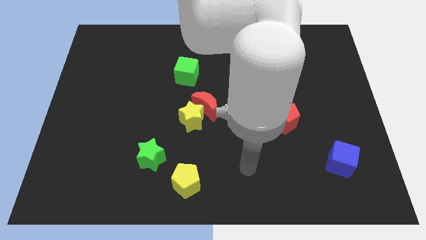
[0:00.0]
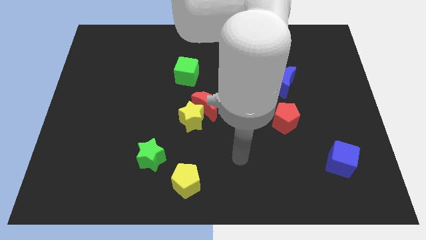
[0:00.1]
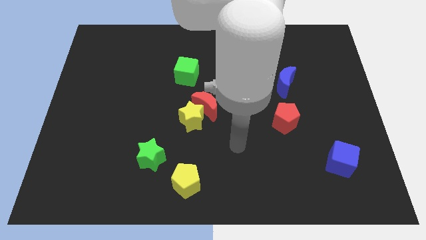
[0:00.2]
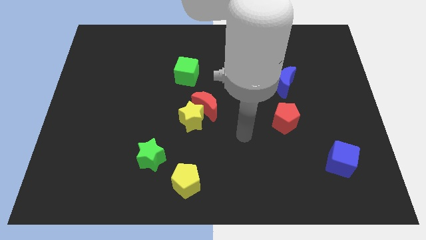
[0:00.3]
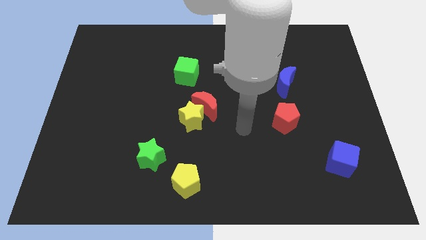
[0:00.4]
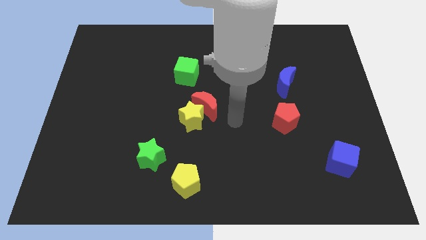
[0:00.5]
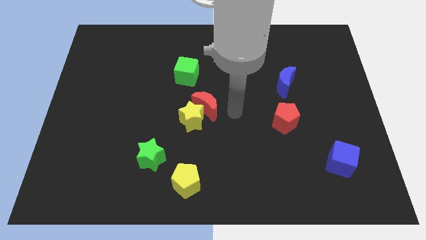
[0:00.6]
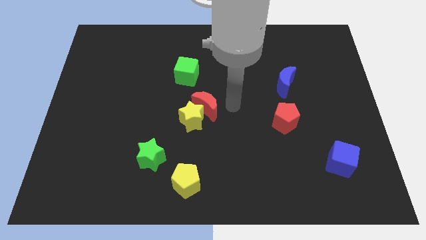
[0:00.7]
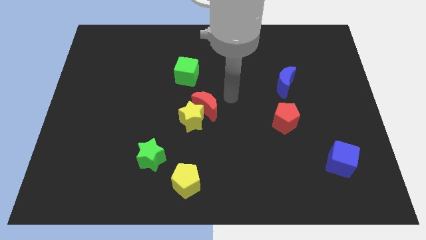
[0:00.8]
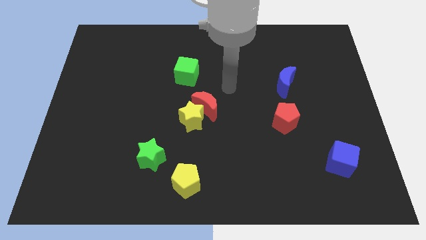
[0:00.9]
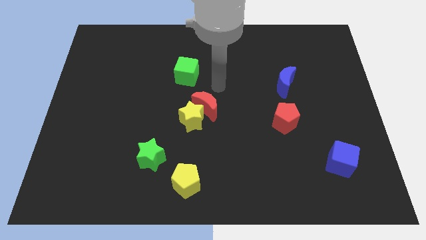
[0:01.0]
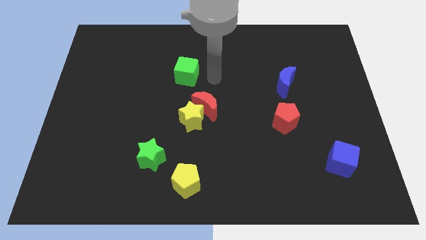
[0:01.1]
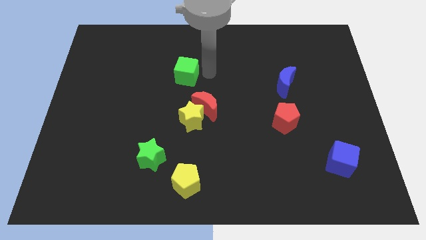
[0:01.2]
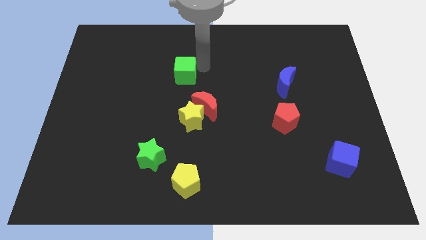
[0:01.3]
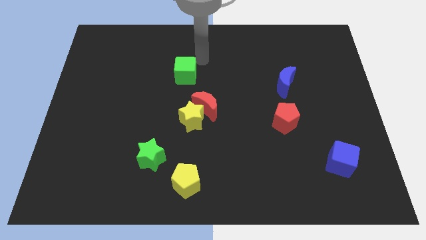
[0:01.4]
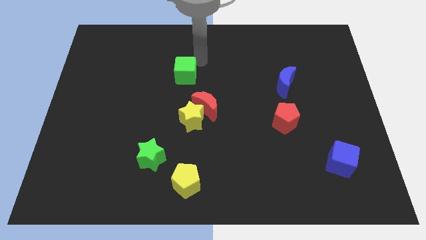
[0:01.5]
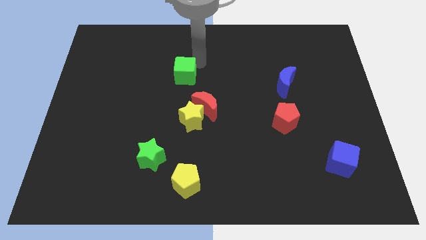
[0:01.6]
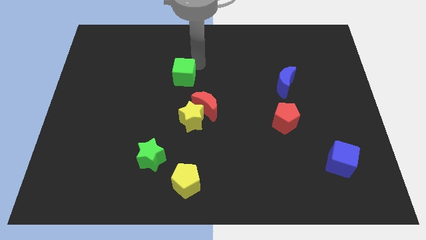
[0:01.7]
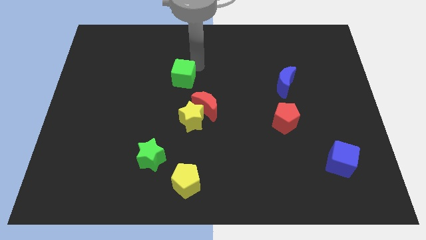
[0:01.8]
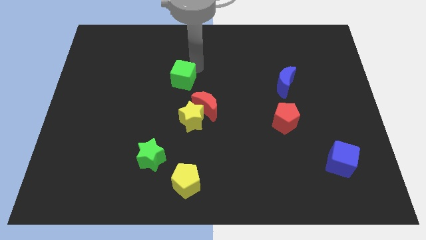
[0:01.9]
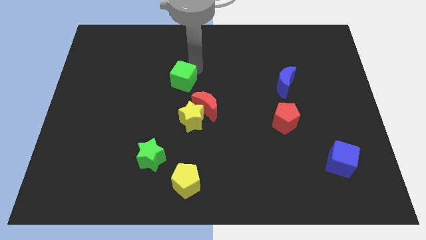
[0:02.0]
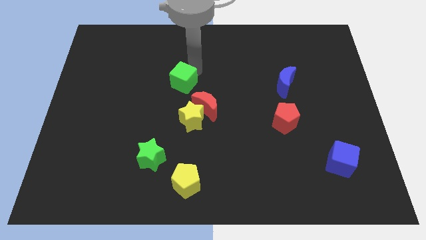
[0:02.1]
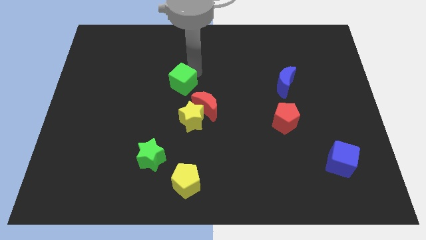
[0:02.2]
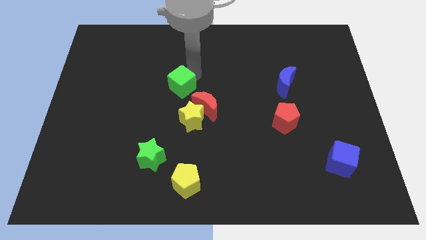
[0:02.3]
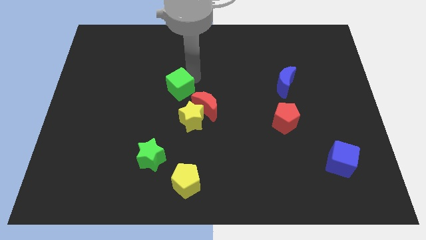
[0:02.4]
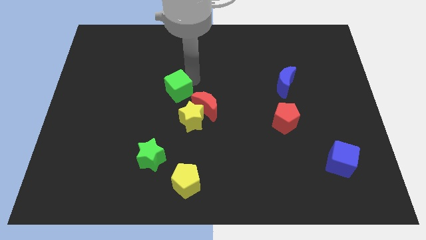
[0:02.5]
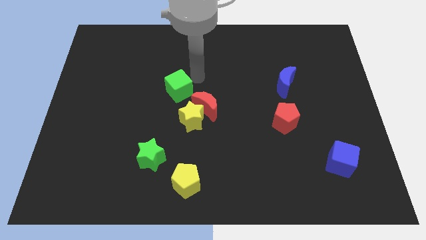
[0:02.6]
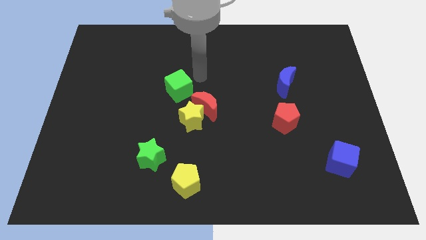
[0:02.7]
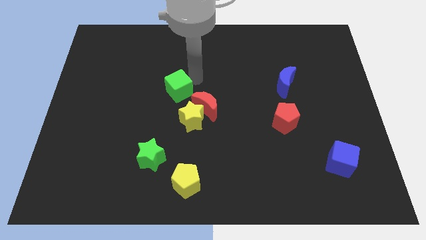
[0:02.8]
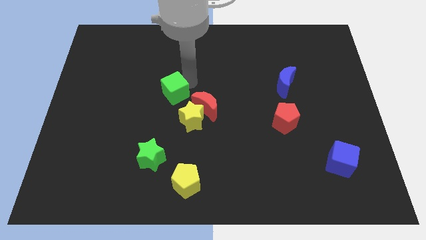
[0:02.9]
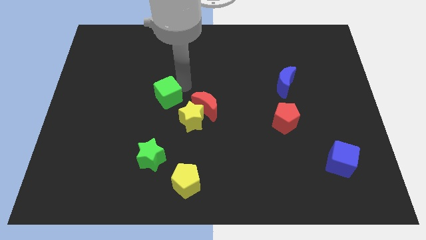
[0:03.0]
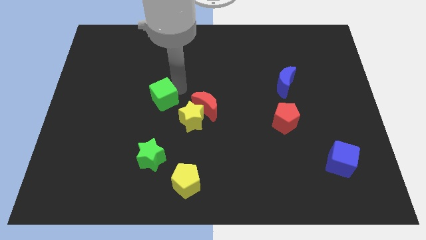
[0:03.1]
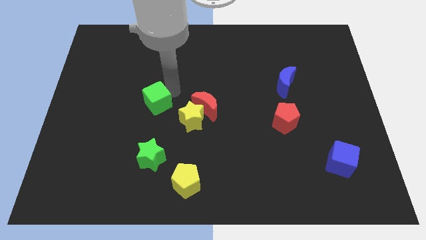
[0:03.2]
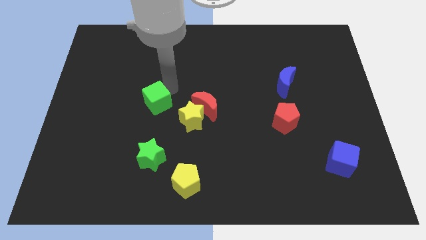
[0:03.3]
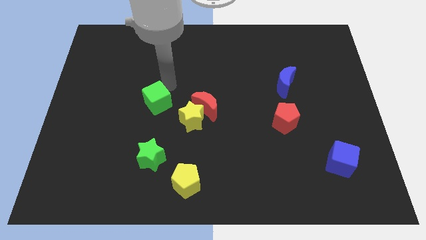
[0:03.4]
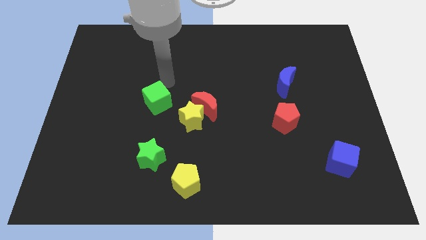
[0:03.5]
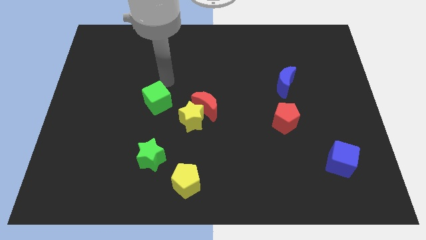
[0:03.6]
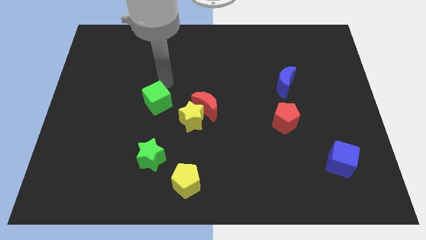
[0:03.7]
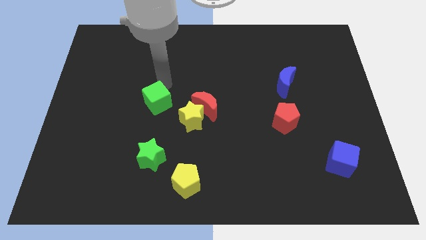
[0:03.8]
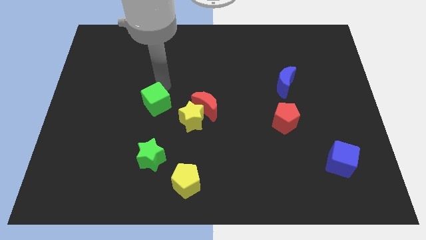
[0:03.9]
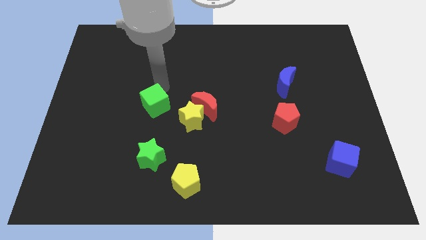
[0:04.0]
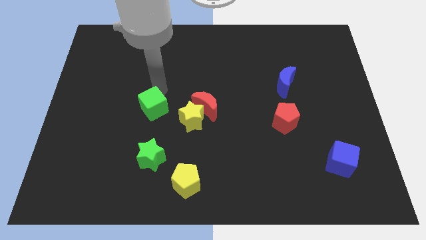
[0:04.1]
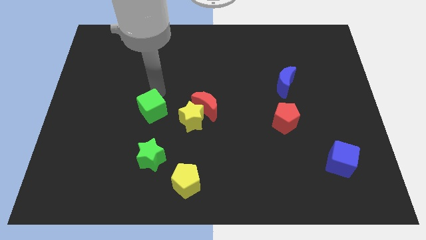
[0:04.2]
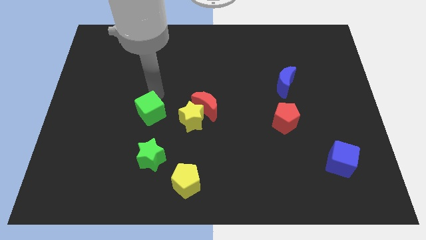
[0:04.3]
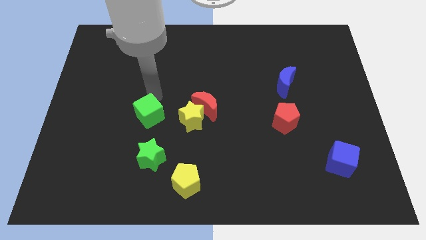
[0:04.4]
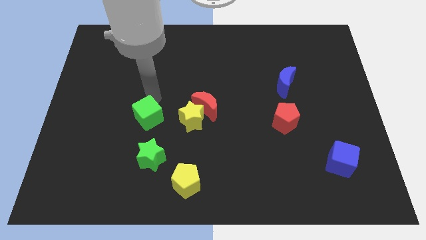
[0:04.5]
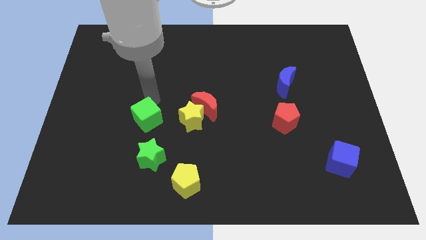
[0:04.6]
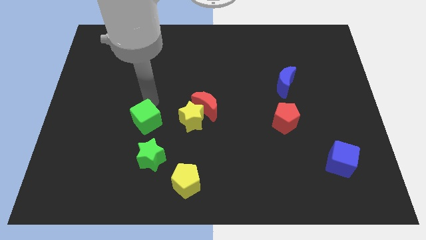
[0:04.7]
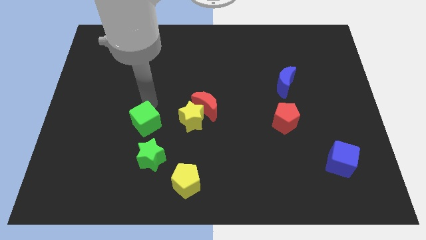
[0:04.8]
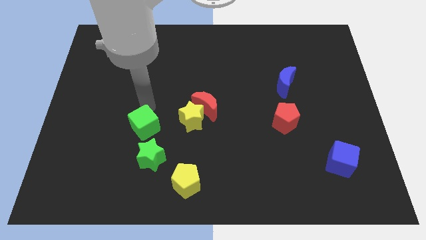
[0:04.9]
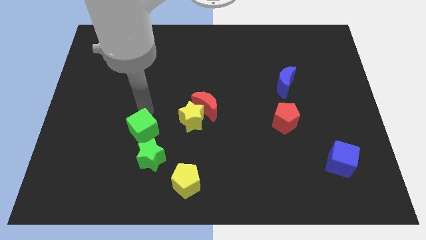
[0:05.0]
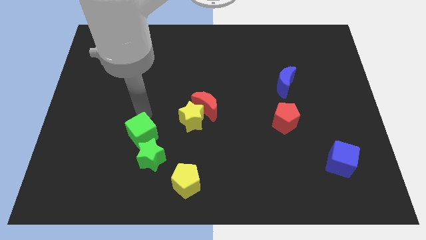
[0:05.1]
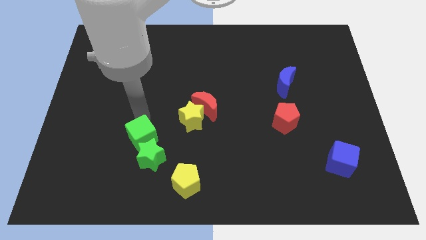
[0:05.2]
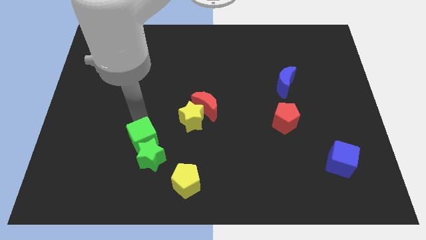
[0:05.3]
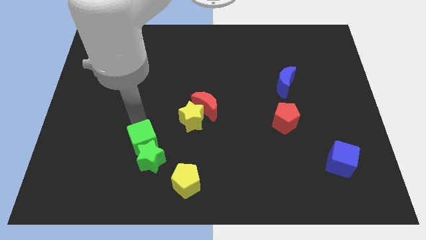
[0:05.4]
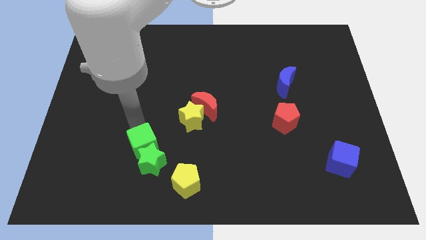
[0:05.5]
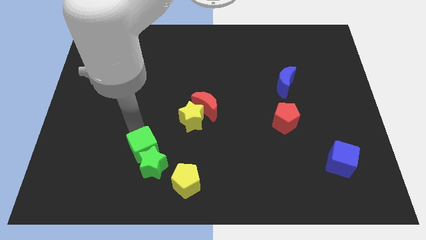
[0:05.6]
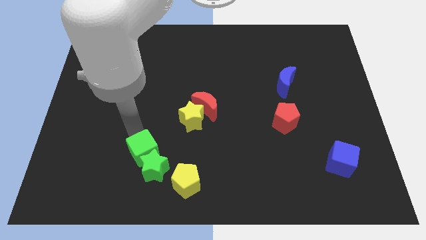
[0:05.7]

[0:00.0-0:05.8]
push the green cube just left of the green star

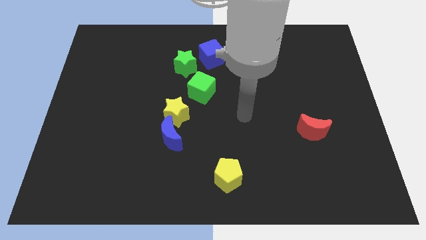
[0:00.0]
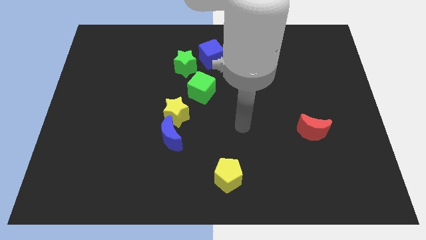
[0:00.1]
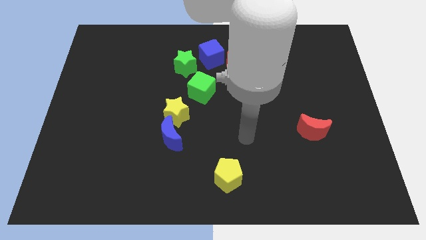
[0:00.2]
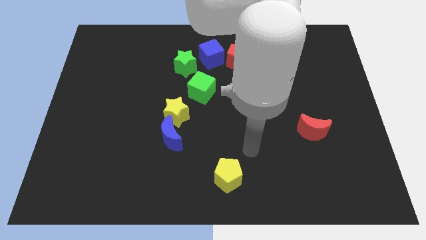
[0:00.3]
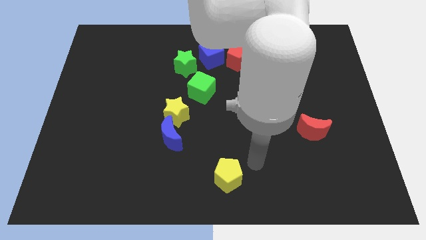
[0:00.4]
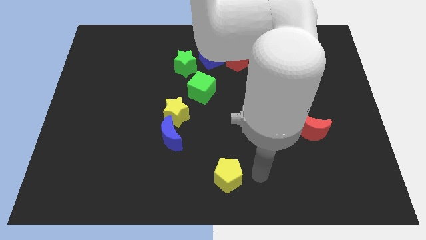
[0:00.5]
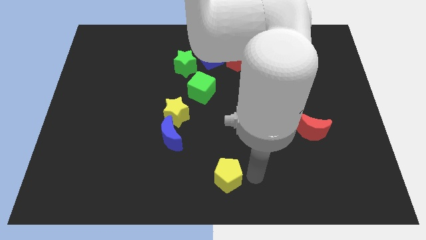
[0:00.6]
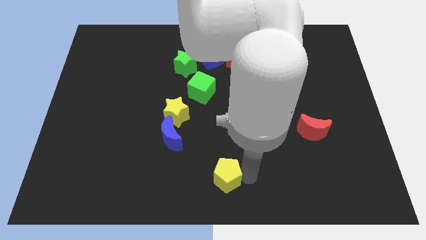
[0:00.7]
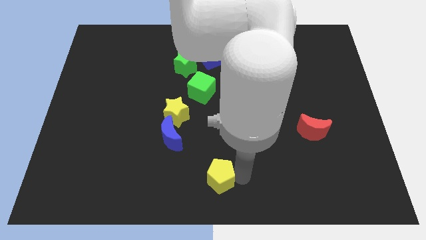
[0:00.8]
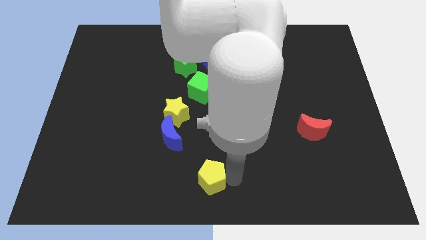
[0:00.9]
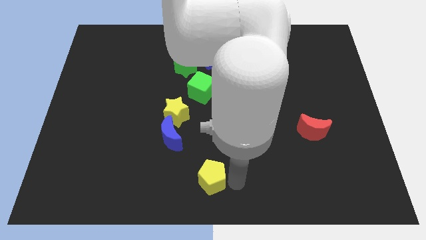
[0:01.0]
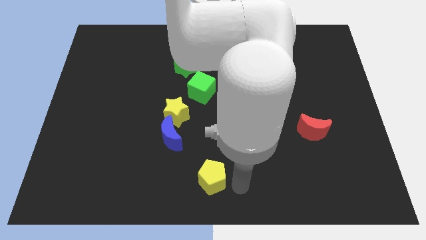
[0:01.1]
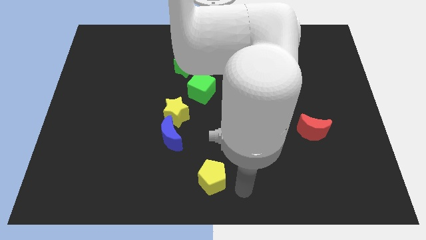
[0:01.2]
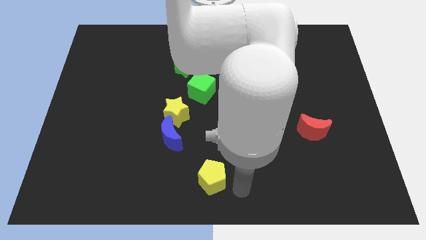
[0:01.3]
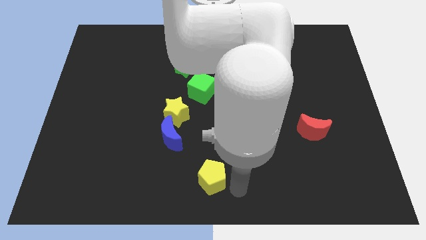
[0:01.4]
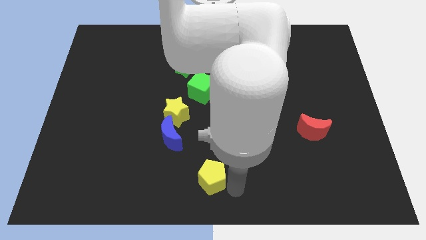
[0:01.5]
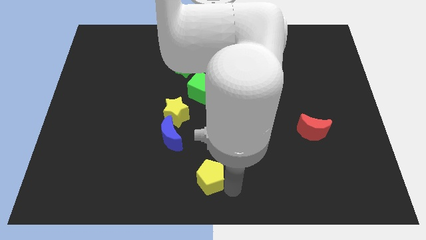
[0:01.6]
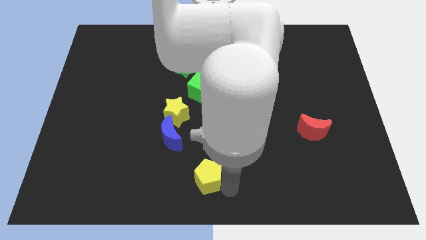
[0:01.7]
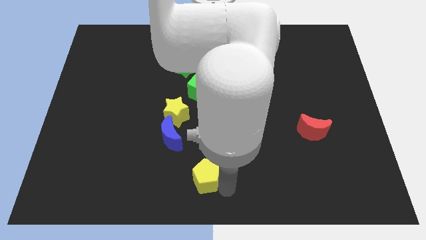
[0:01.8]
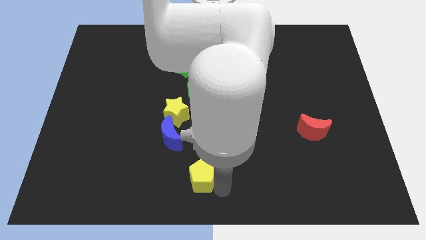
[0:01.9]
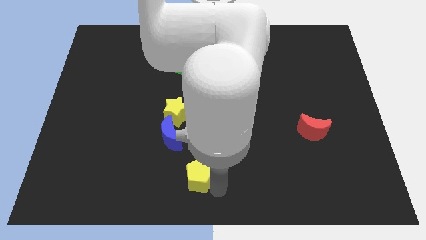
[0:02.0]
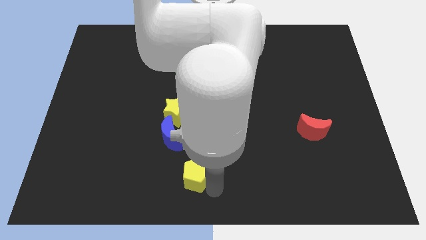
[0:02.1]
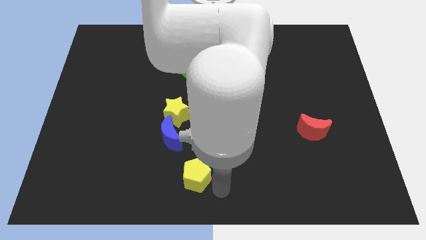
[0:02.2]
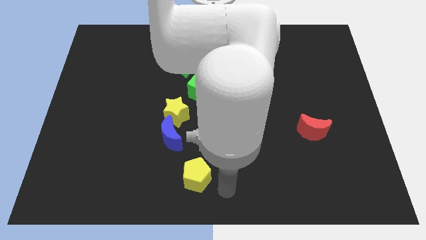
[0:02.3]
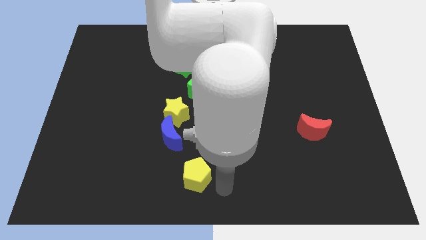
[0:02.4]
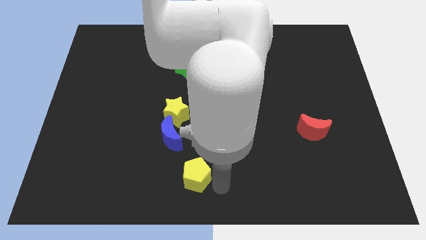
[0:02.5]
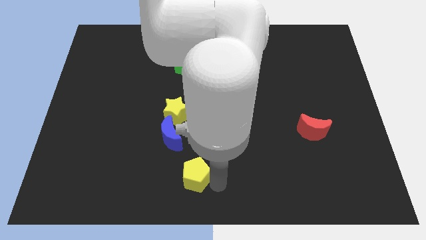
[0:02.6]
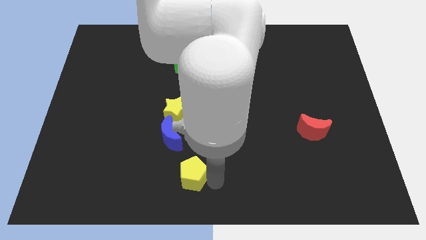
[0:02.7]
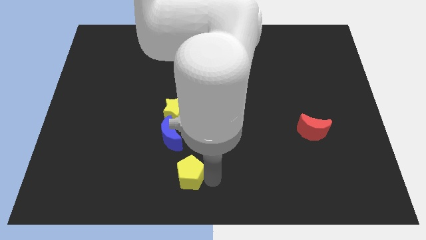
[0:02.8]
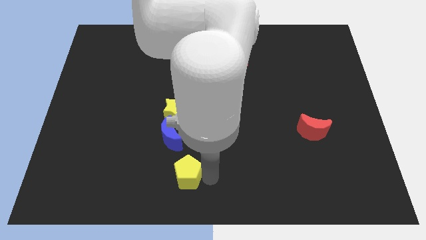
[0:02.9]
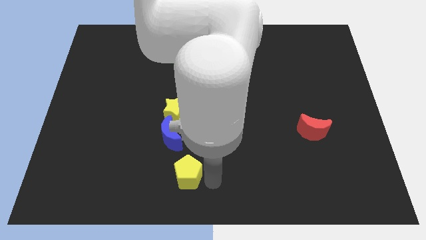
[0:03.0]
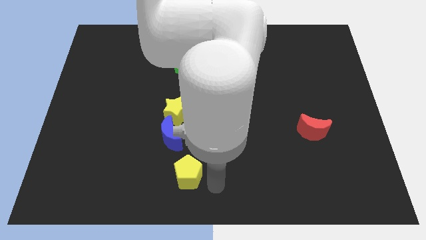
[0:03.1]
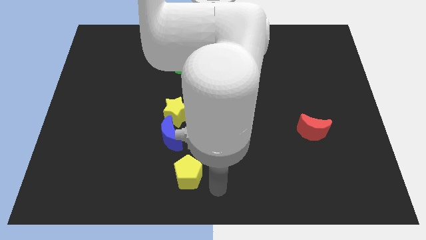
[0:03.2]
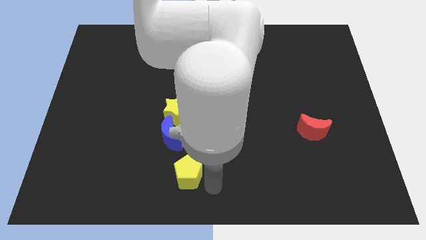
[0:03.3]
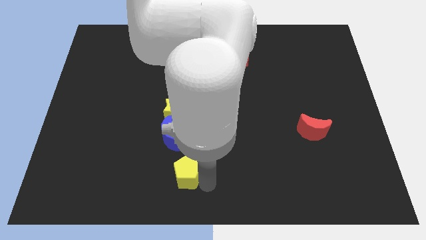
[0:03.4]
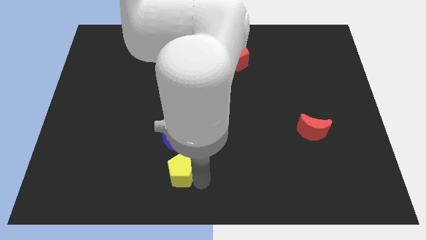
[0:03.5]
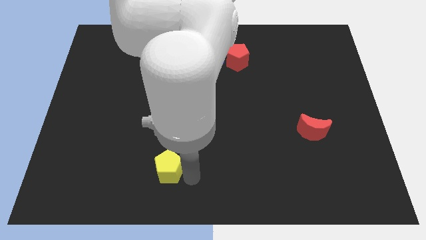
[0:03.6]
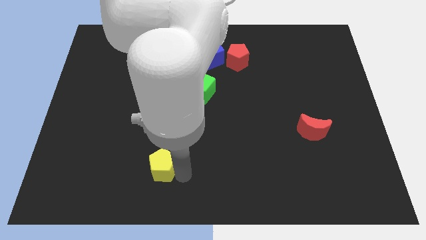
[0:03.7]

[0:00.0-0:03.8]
slide the yellow pentagon diagonally down and to the left of the blue moon
